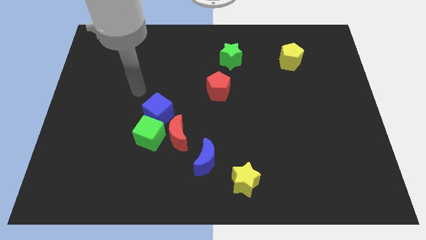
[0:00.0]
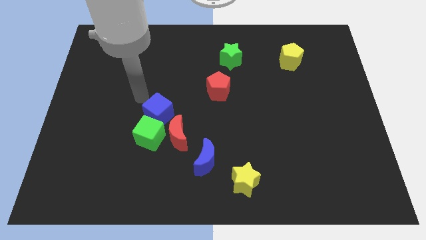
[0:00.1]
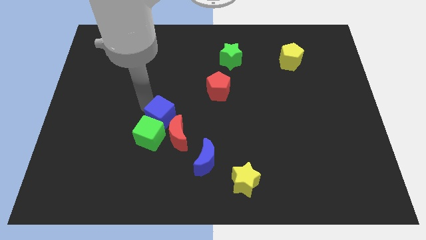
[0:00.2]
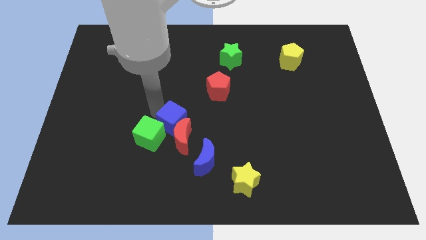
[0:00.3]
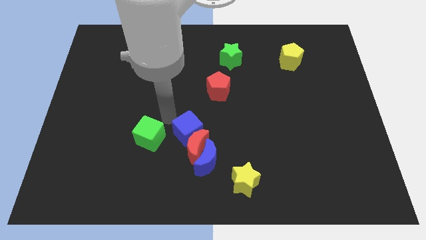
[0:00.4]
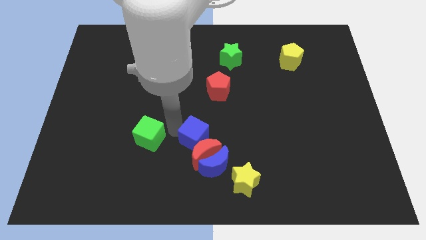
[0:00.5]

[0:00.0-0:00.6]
separate the green cube from the red moon and blue cube

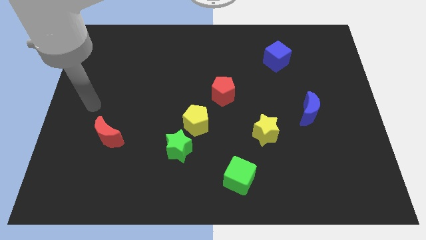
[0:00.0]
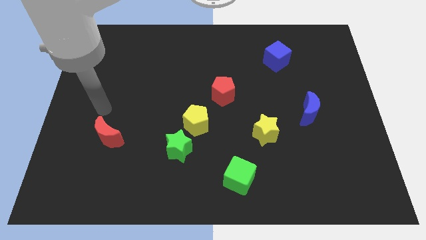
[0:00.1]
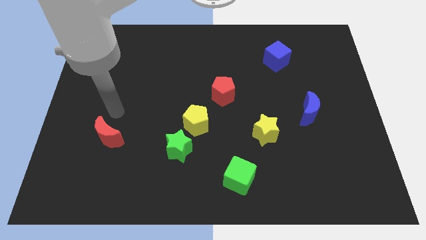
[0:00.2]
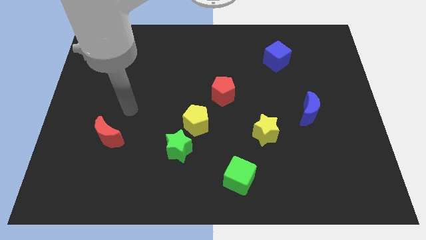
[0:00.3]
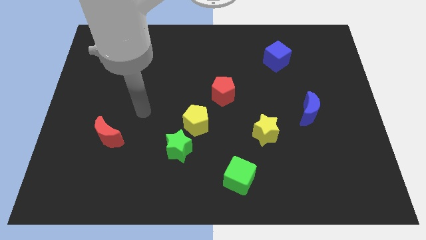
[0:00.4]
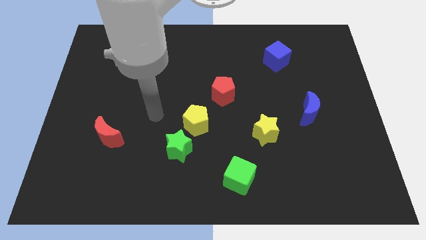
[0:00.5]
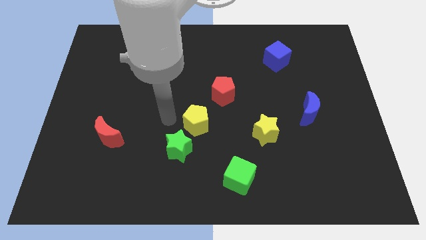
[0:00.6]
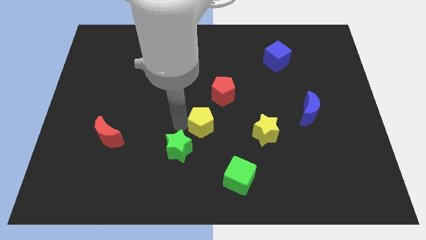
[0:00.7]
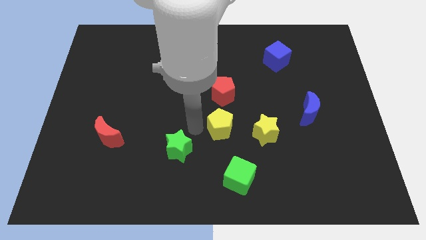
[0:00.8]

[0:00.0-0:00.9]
separate the green star from the yellow pentagon

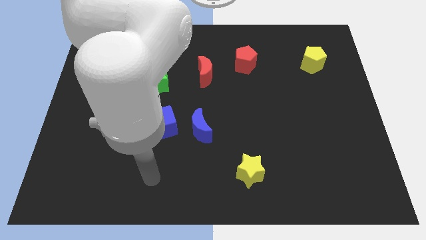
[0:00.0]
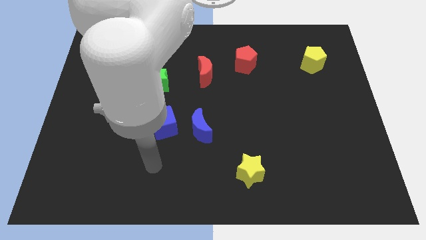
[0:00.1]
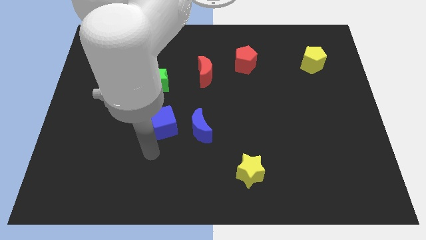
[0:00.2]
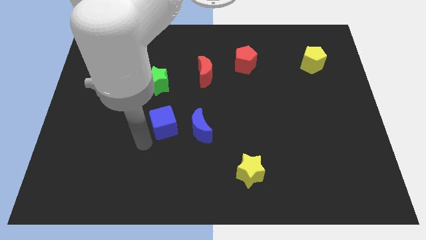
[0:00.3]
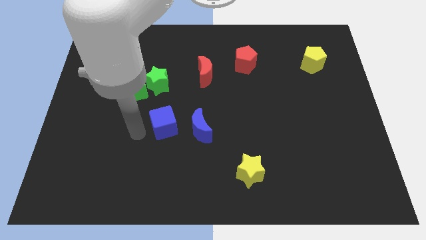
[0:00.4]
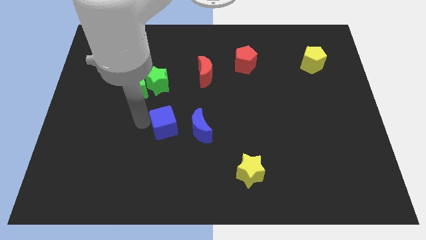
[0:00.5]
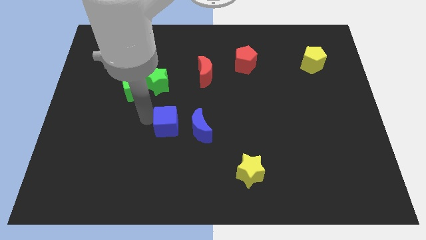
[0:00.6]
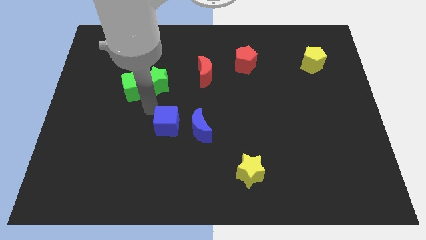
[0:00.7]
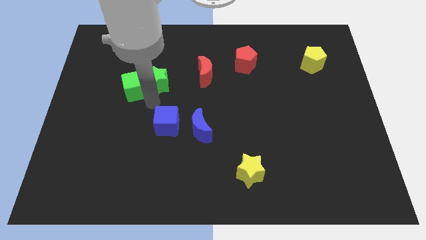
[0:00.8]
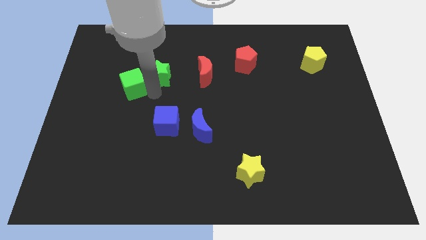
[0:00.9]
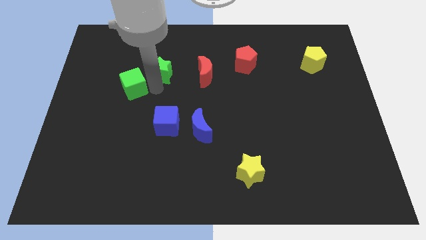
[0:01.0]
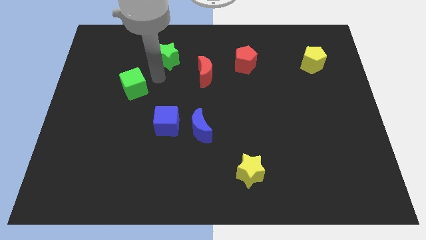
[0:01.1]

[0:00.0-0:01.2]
pull the green cube apart from the green star

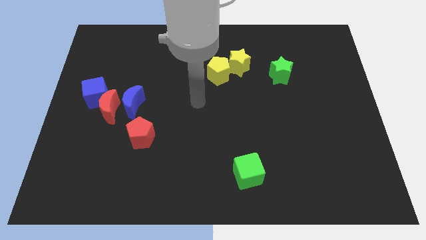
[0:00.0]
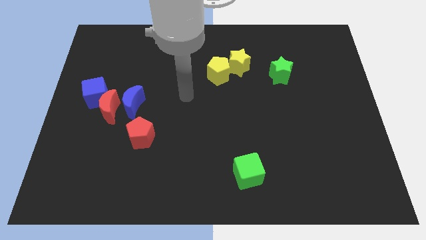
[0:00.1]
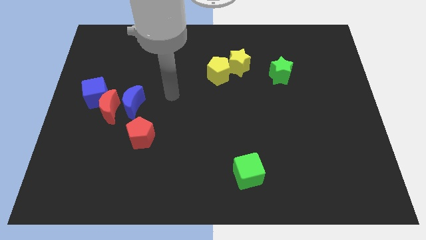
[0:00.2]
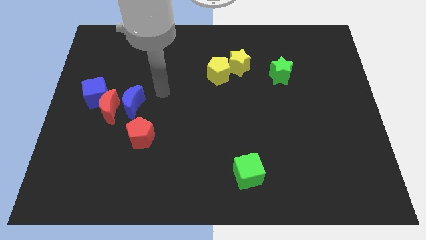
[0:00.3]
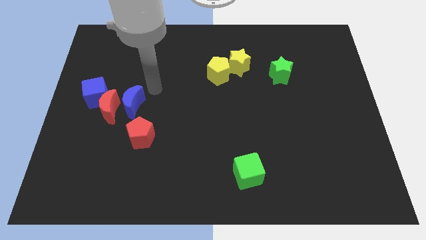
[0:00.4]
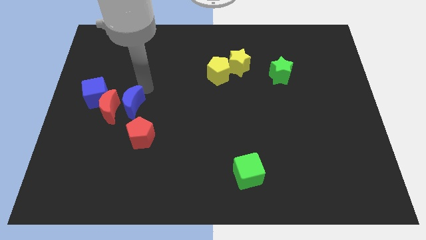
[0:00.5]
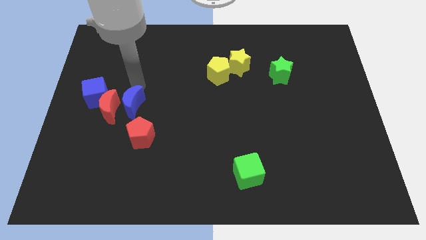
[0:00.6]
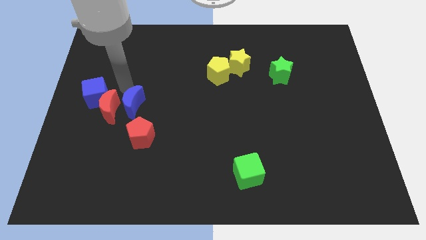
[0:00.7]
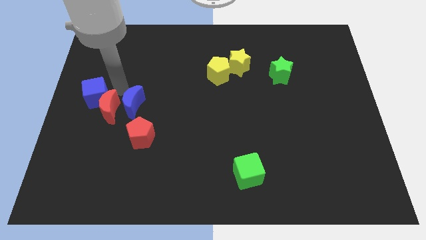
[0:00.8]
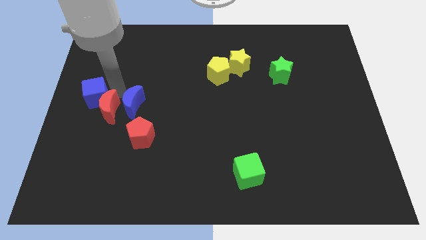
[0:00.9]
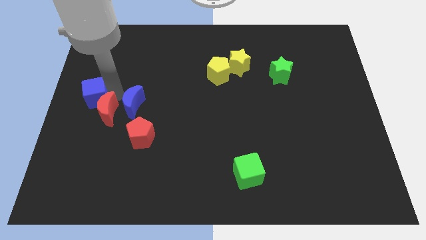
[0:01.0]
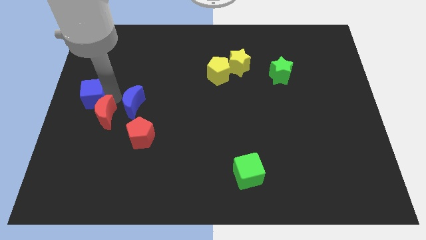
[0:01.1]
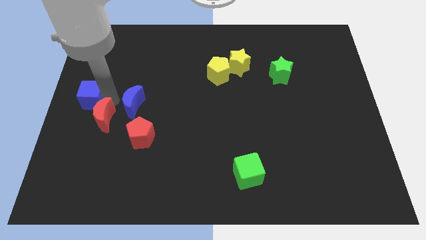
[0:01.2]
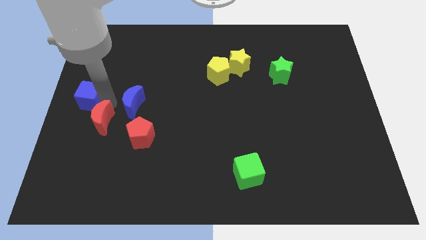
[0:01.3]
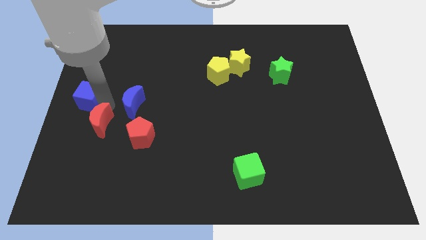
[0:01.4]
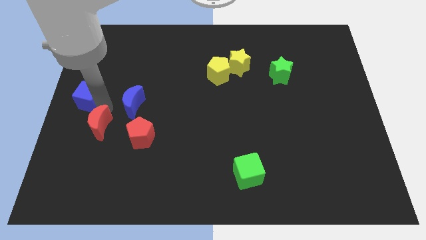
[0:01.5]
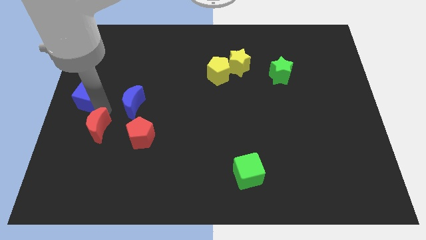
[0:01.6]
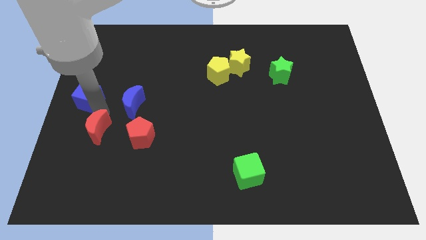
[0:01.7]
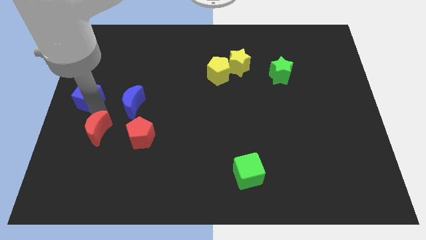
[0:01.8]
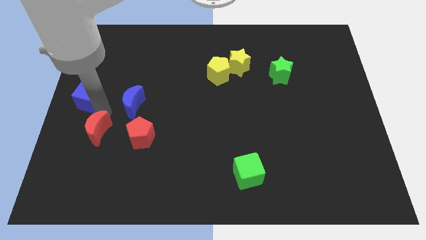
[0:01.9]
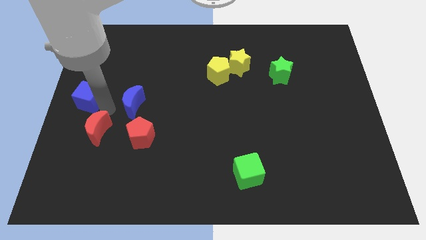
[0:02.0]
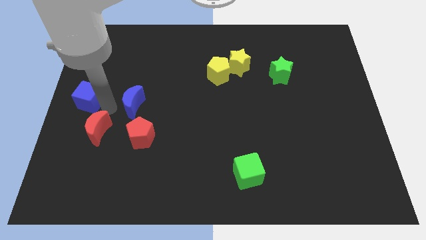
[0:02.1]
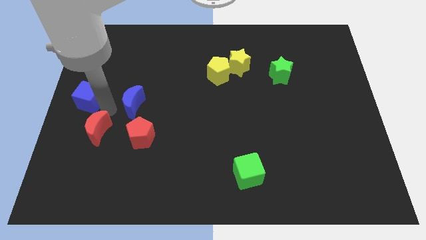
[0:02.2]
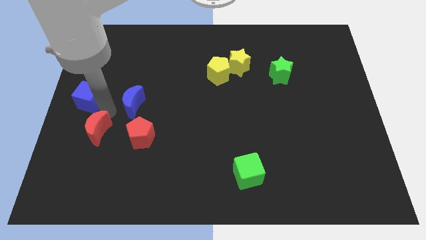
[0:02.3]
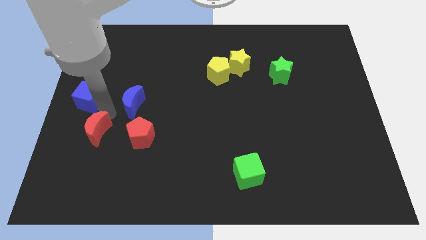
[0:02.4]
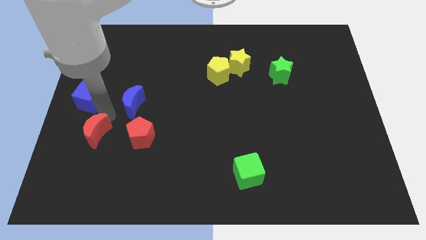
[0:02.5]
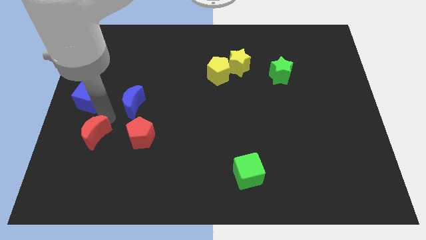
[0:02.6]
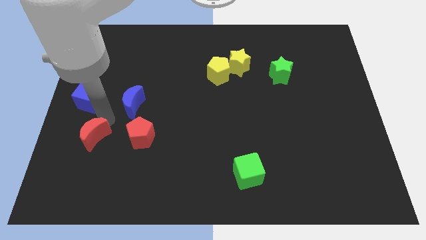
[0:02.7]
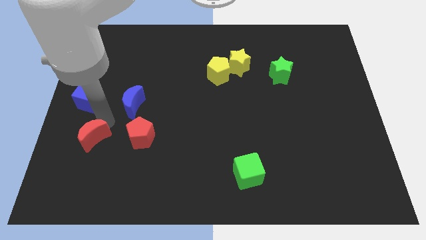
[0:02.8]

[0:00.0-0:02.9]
move the red moon away from the blue moon and blue cube

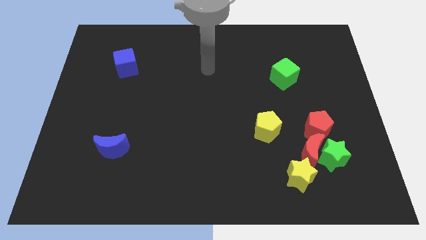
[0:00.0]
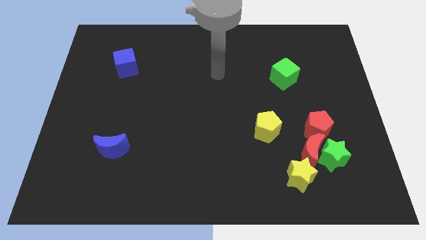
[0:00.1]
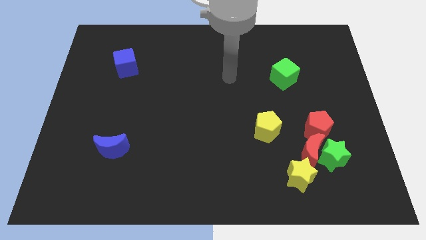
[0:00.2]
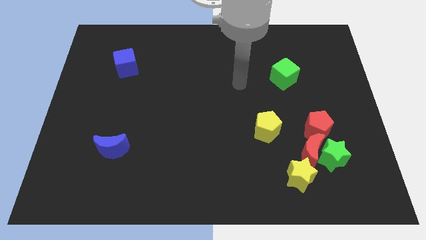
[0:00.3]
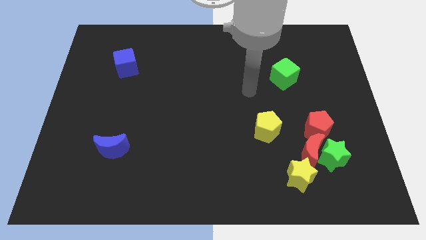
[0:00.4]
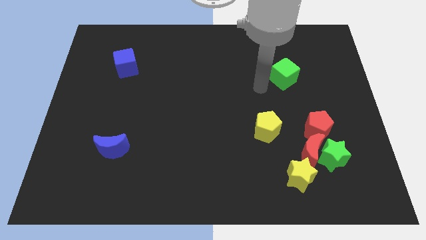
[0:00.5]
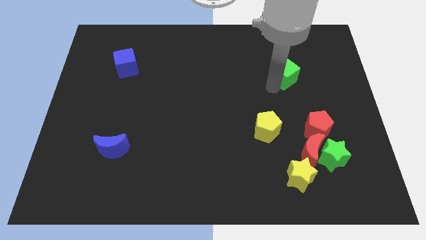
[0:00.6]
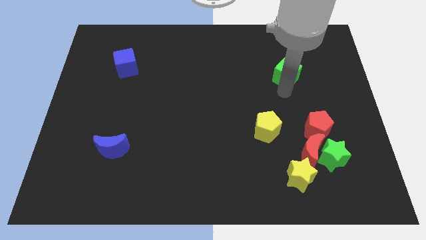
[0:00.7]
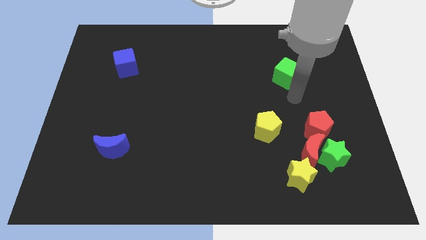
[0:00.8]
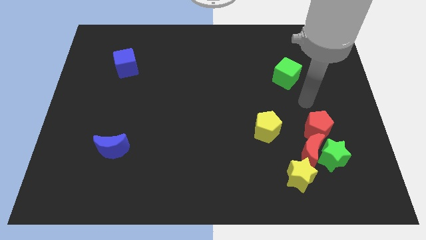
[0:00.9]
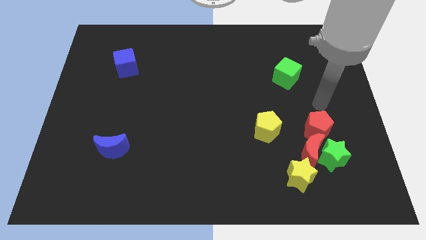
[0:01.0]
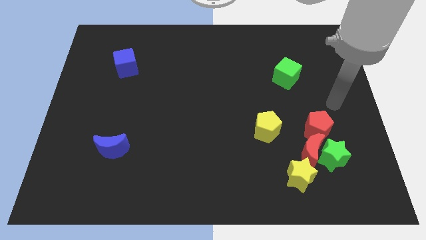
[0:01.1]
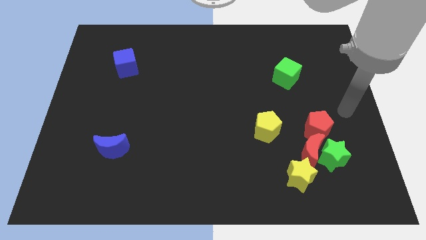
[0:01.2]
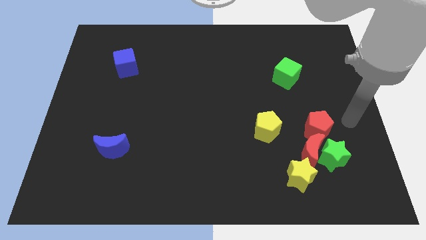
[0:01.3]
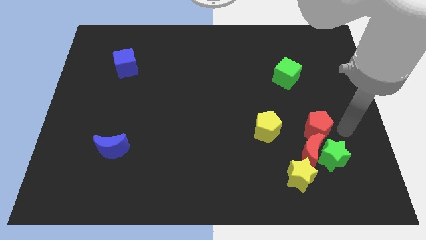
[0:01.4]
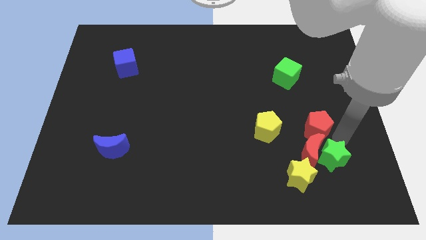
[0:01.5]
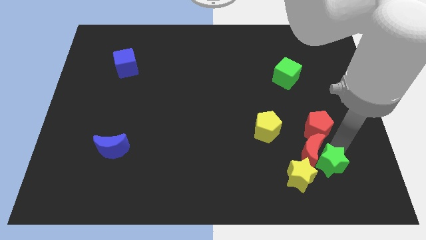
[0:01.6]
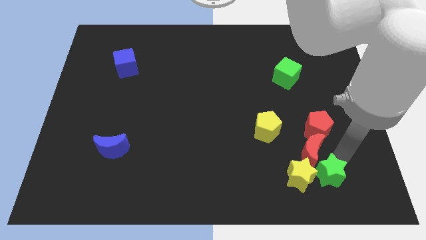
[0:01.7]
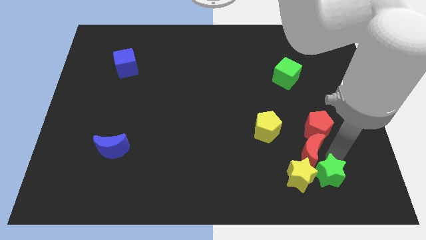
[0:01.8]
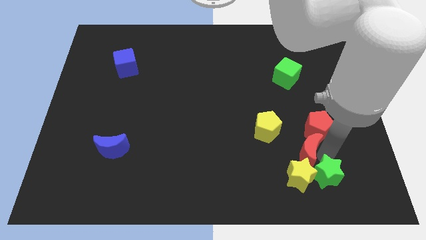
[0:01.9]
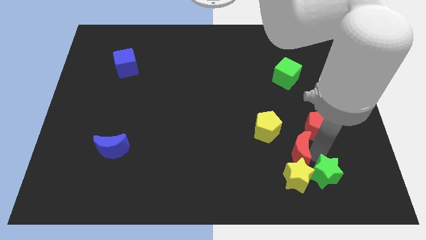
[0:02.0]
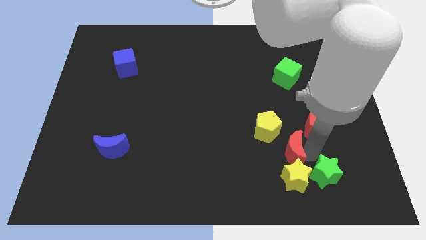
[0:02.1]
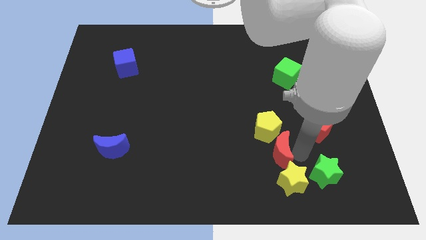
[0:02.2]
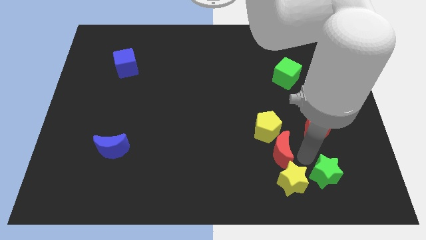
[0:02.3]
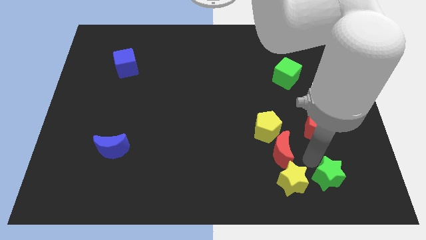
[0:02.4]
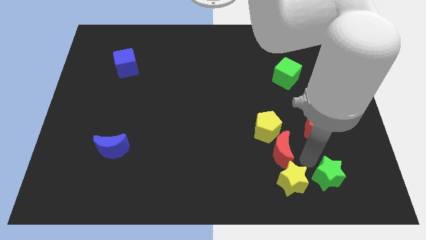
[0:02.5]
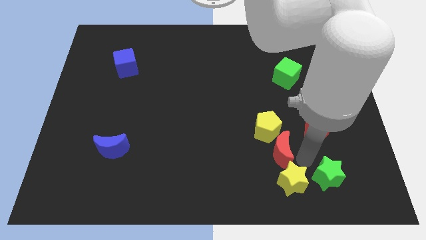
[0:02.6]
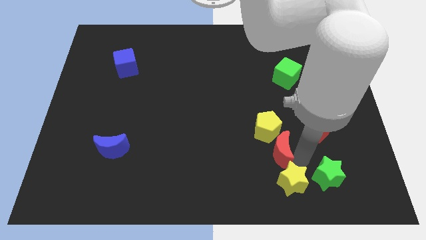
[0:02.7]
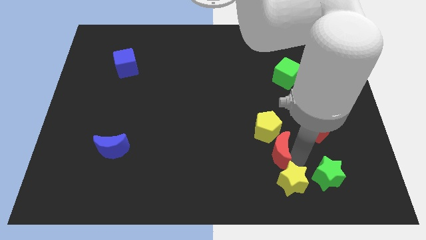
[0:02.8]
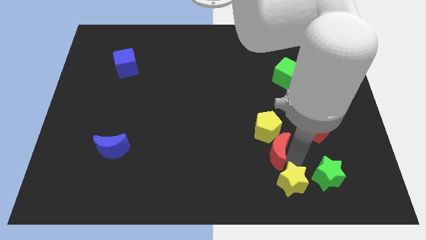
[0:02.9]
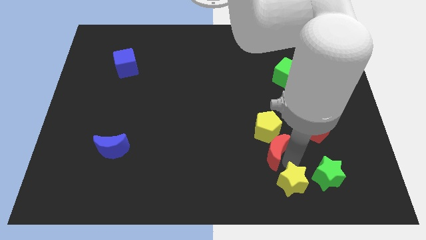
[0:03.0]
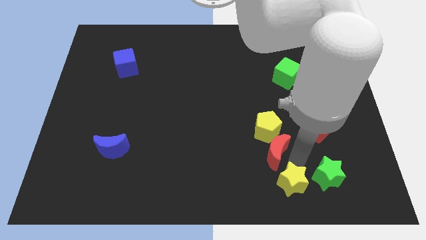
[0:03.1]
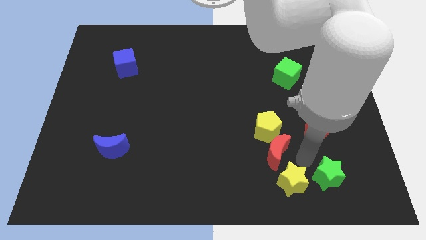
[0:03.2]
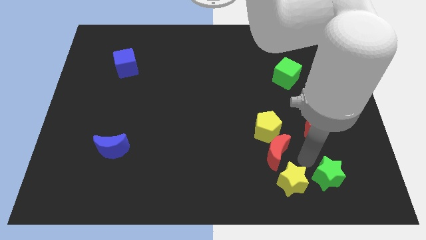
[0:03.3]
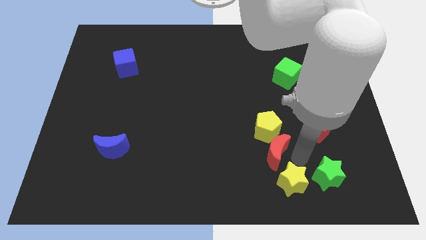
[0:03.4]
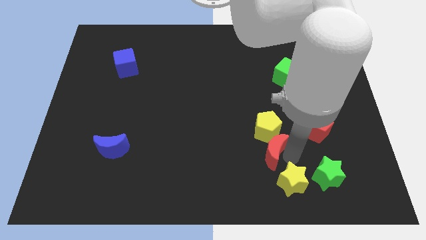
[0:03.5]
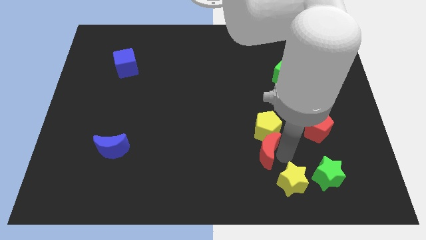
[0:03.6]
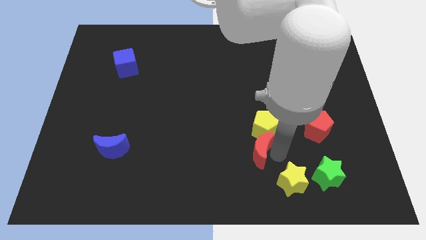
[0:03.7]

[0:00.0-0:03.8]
pull the red moon apart from the clump
